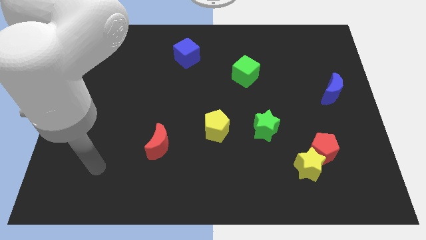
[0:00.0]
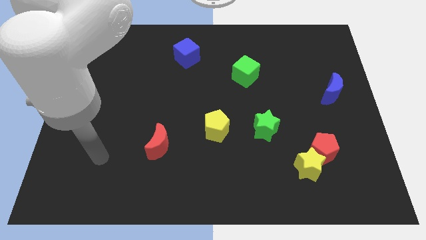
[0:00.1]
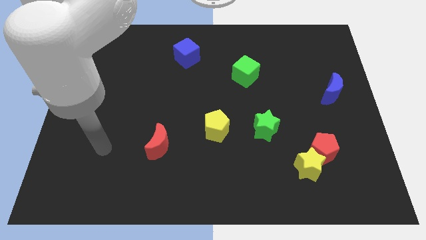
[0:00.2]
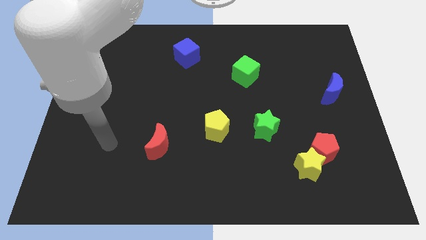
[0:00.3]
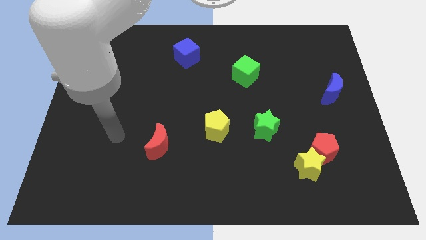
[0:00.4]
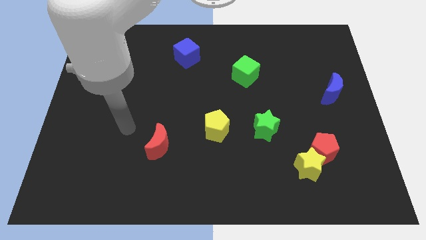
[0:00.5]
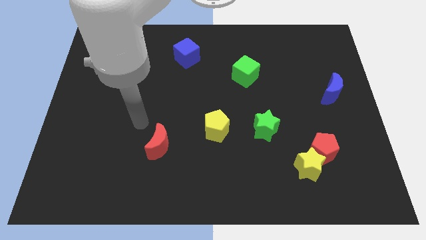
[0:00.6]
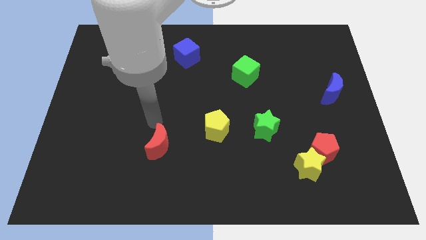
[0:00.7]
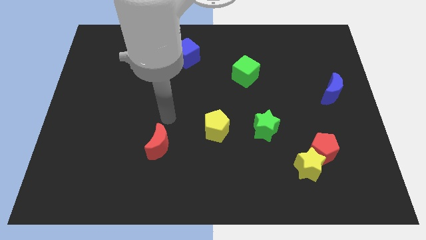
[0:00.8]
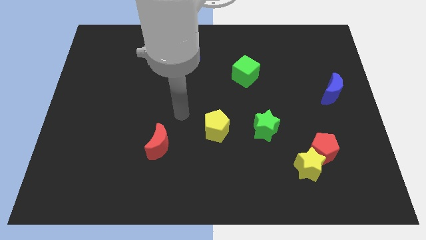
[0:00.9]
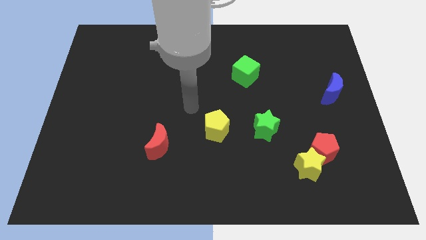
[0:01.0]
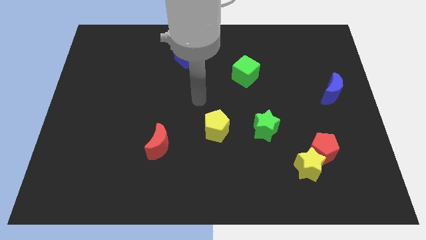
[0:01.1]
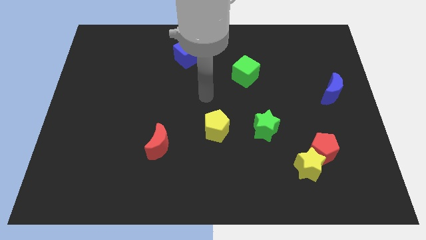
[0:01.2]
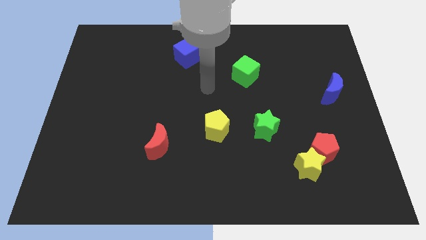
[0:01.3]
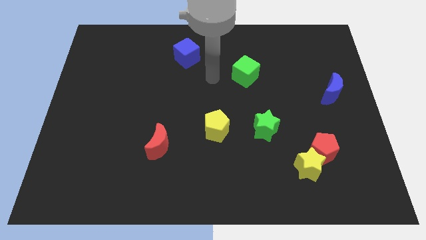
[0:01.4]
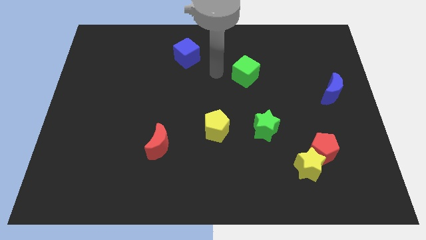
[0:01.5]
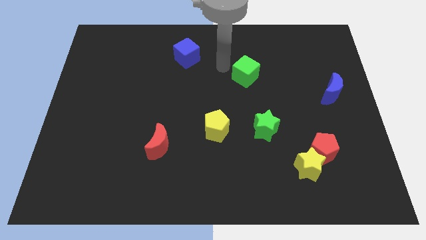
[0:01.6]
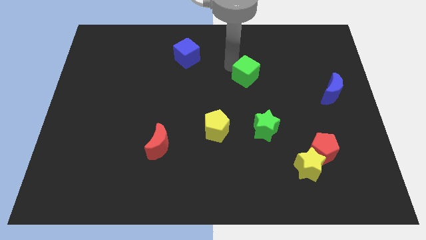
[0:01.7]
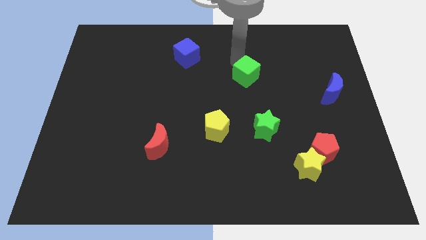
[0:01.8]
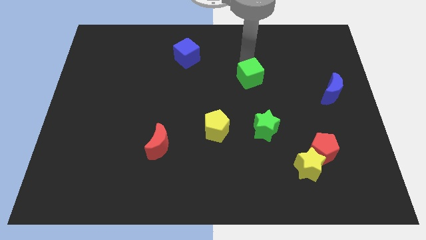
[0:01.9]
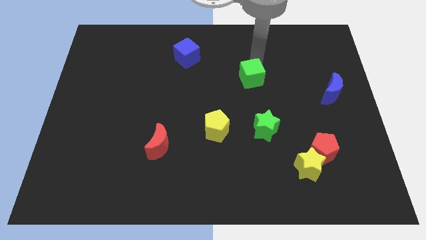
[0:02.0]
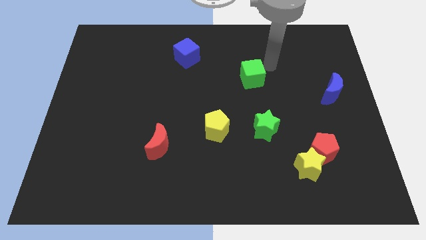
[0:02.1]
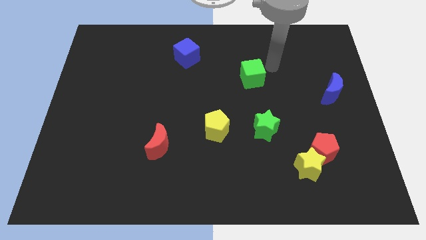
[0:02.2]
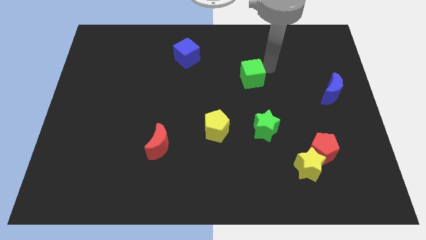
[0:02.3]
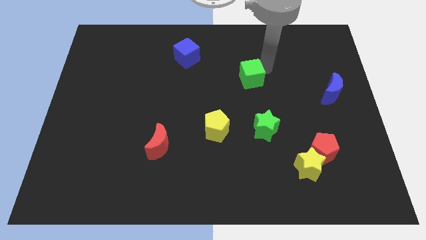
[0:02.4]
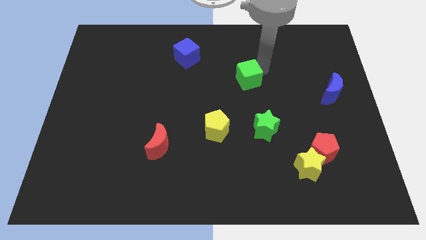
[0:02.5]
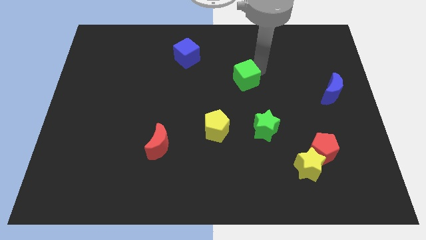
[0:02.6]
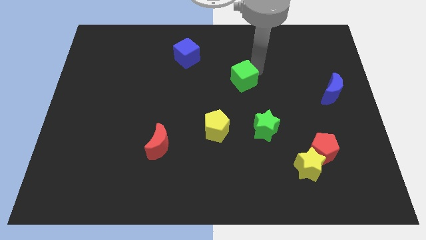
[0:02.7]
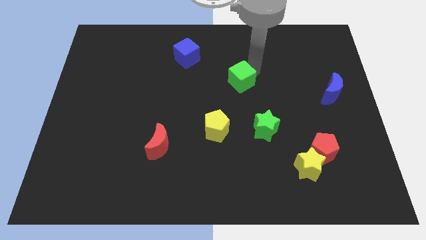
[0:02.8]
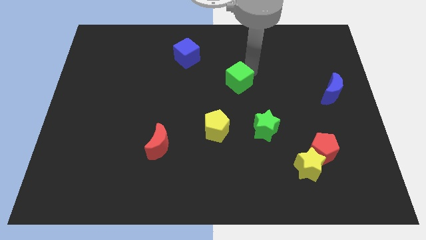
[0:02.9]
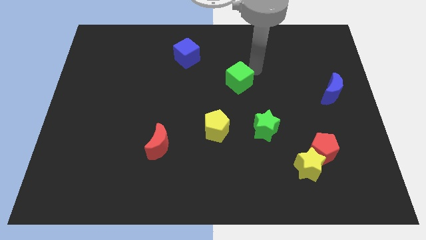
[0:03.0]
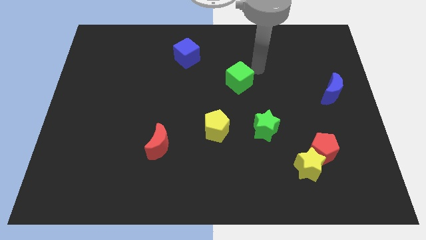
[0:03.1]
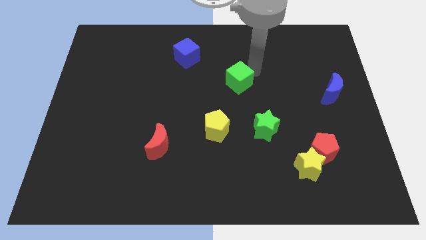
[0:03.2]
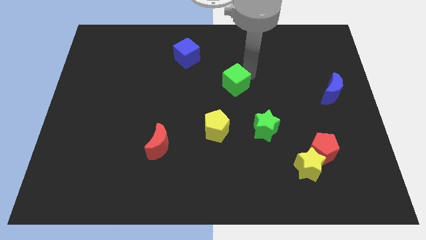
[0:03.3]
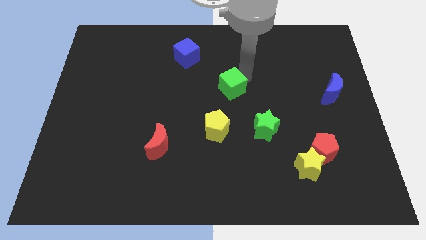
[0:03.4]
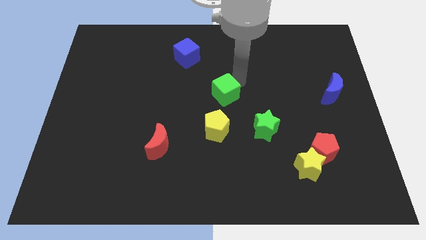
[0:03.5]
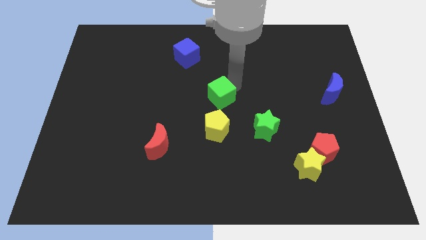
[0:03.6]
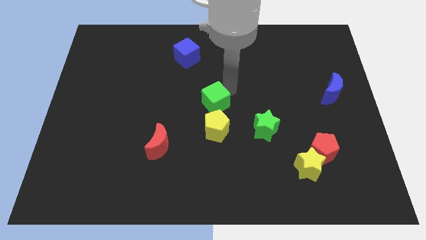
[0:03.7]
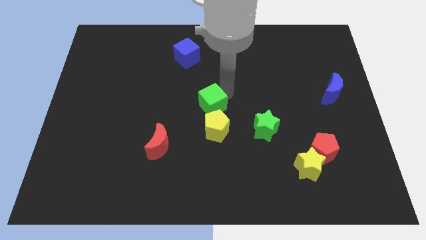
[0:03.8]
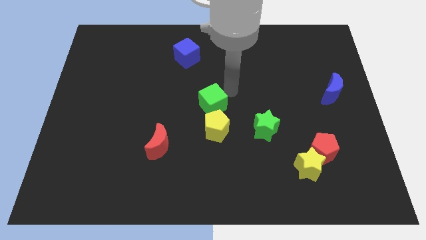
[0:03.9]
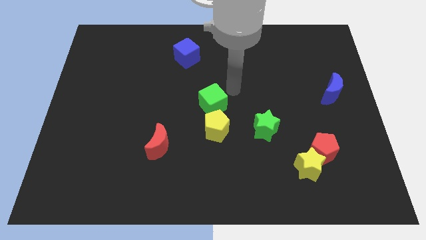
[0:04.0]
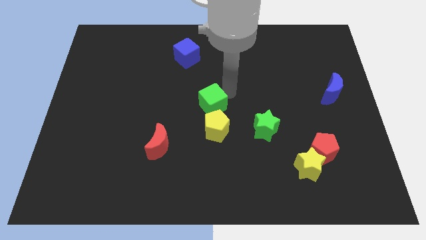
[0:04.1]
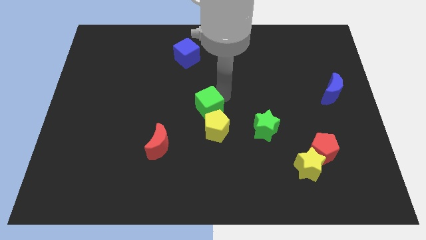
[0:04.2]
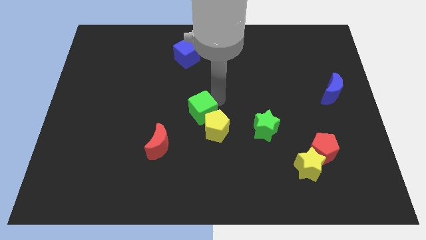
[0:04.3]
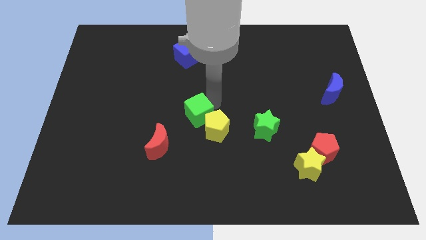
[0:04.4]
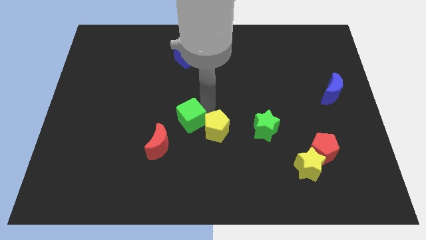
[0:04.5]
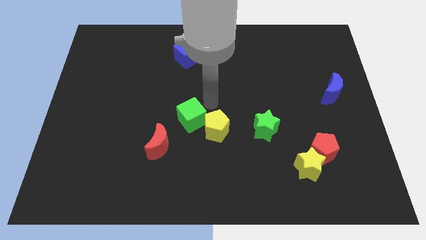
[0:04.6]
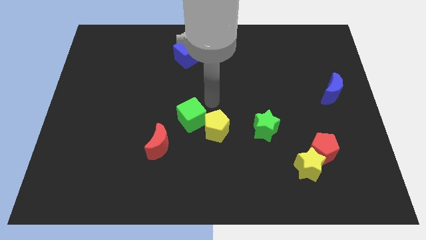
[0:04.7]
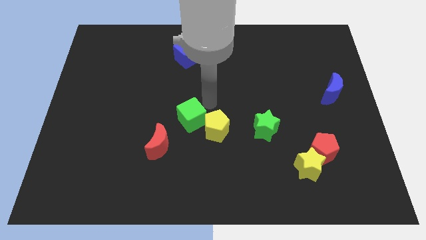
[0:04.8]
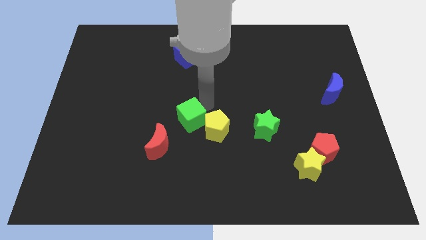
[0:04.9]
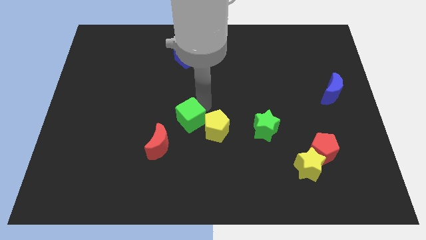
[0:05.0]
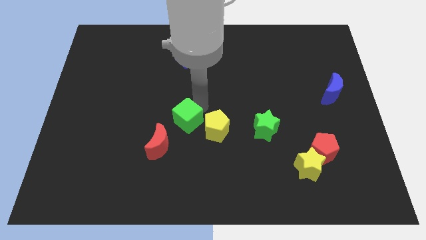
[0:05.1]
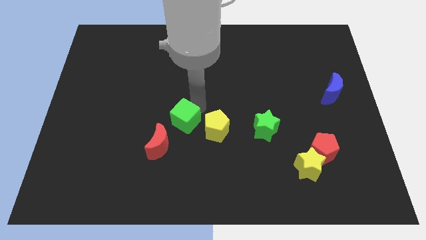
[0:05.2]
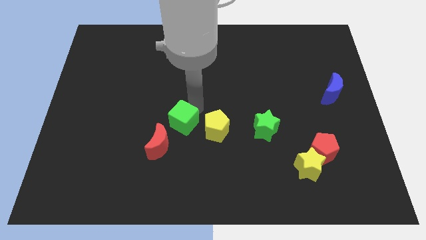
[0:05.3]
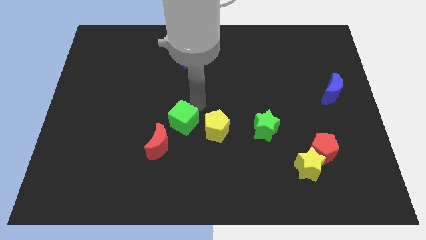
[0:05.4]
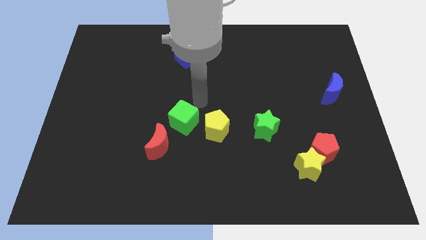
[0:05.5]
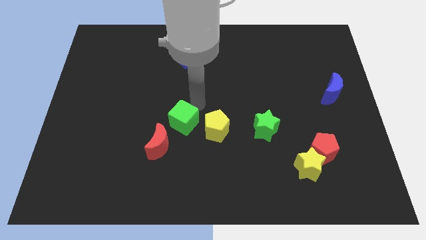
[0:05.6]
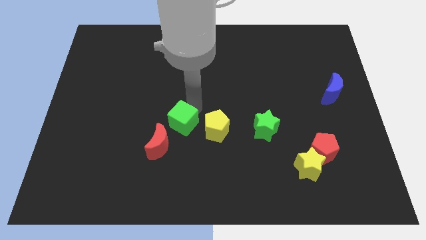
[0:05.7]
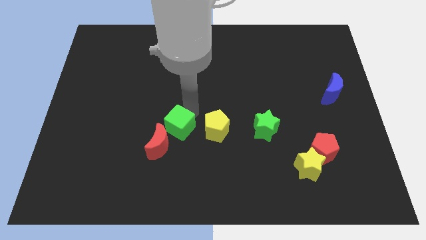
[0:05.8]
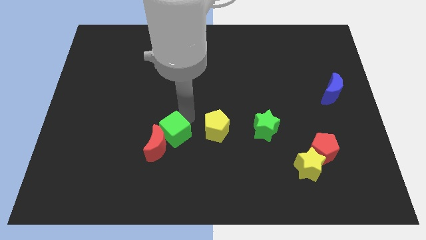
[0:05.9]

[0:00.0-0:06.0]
push the green cube close to the red moon
